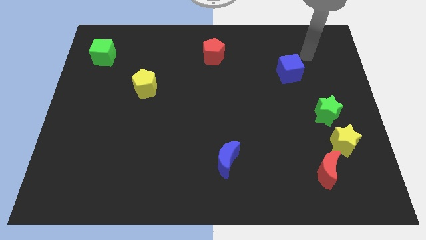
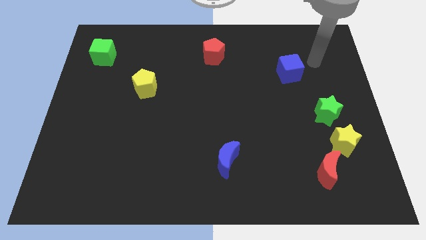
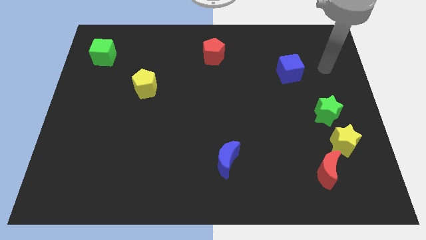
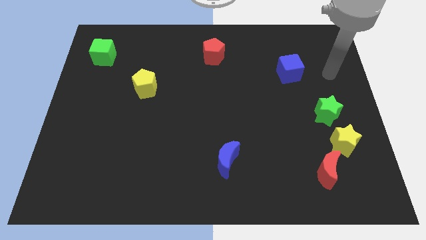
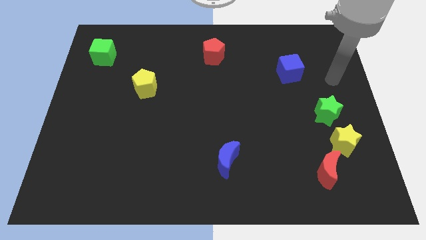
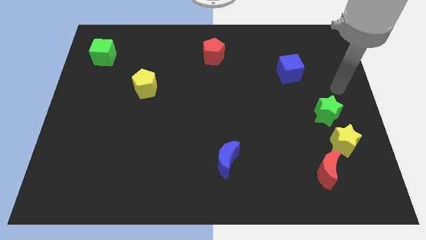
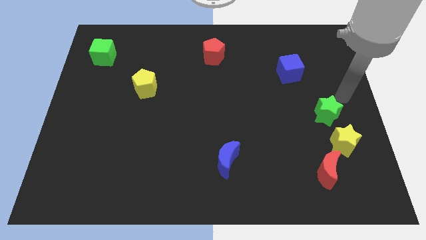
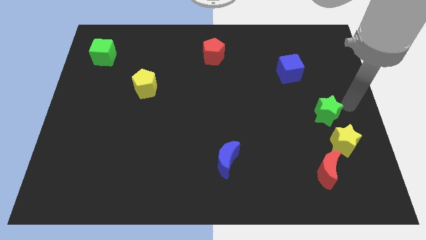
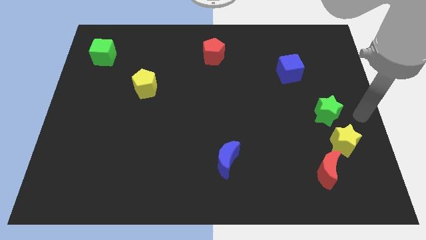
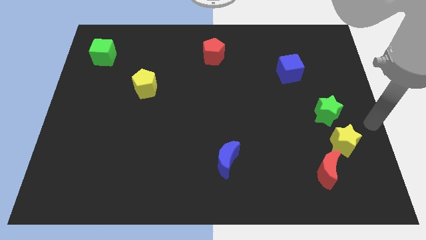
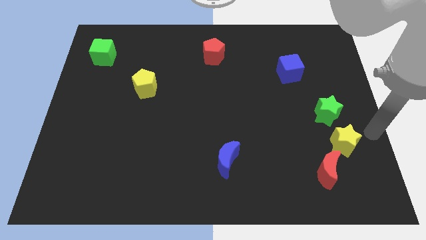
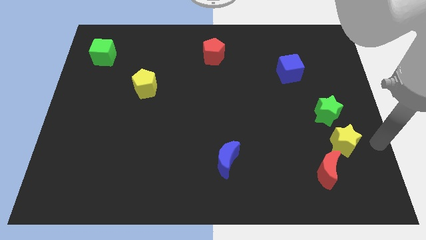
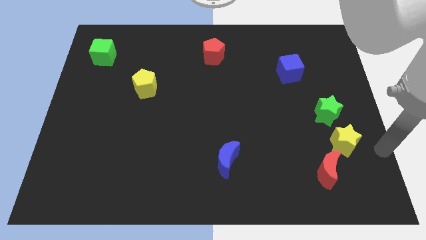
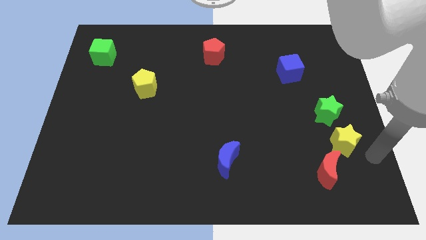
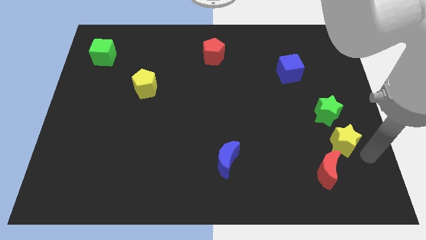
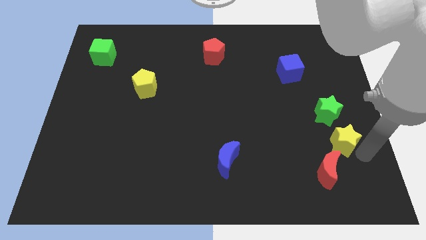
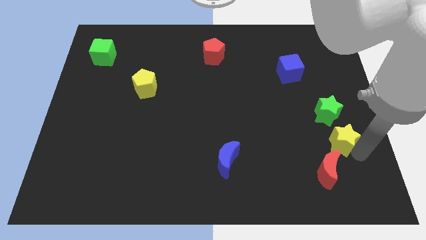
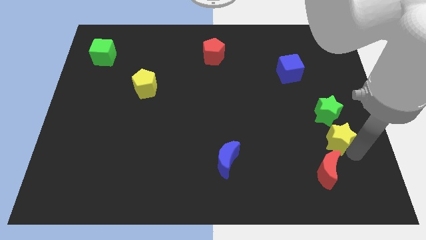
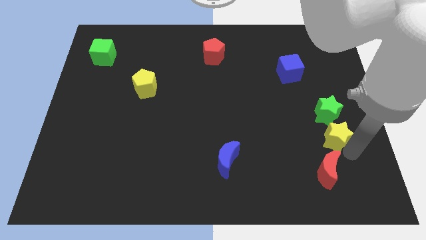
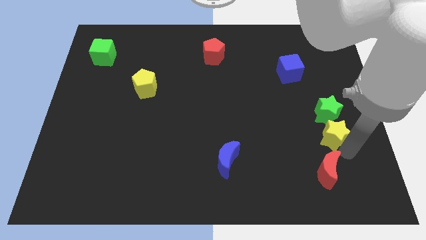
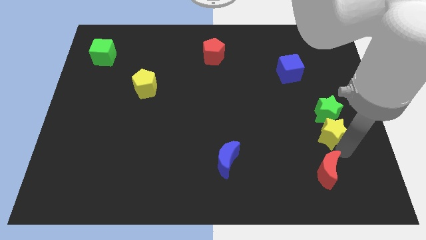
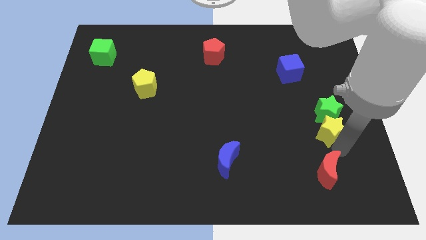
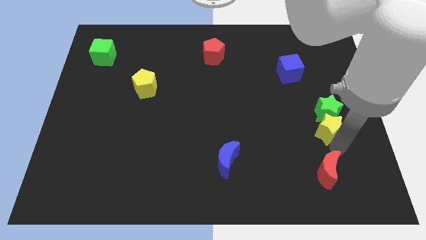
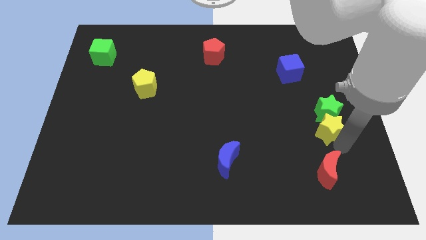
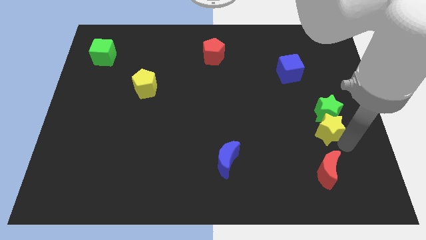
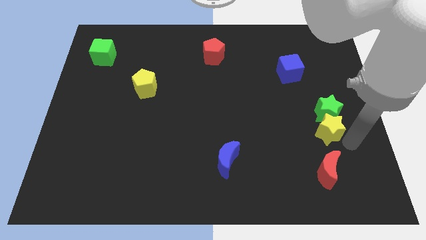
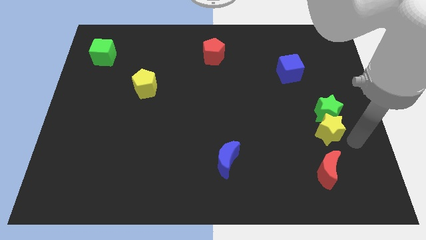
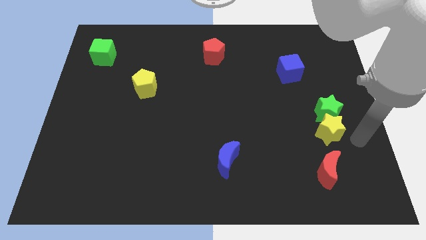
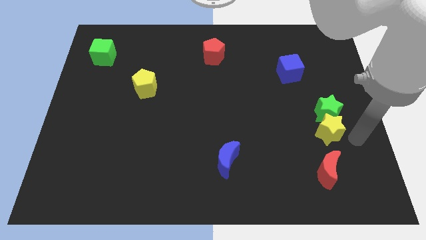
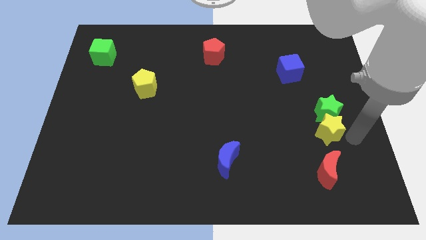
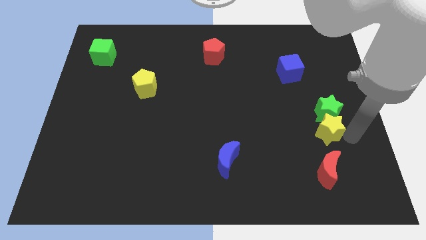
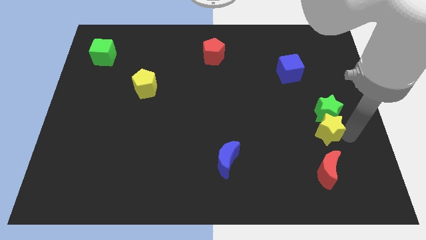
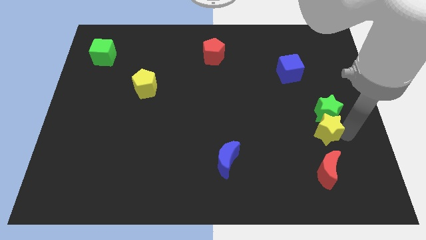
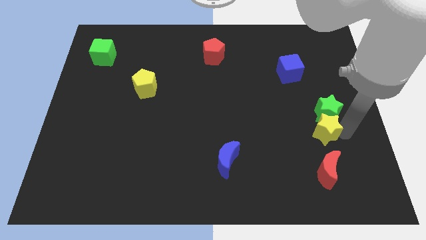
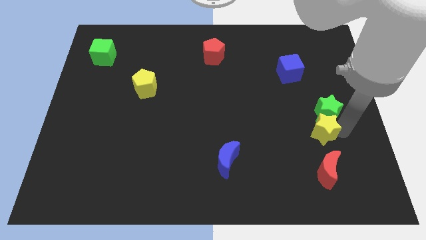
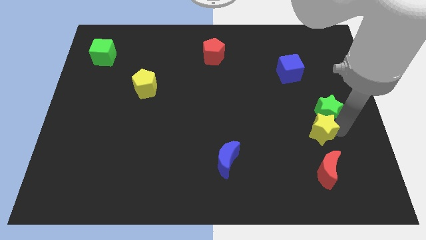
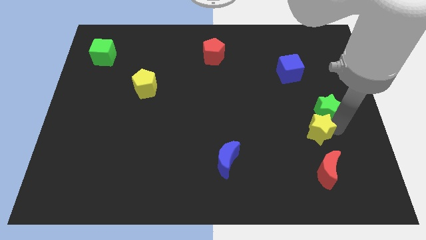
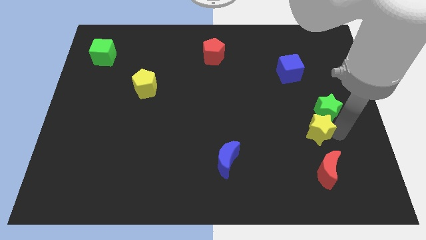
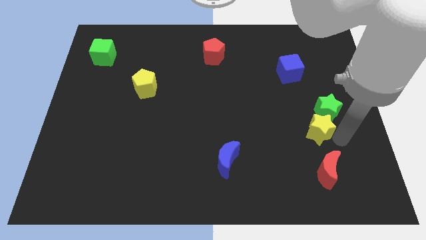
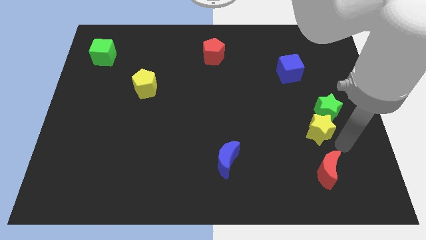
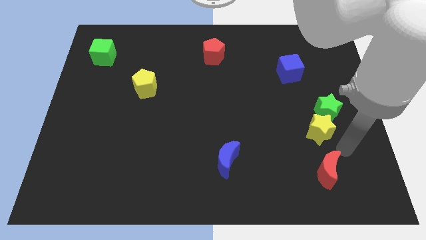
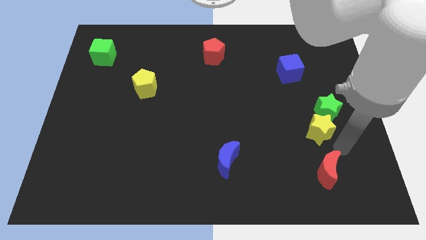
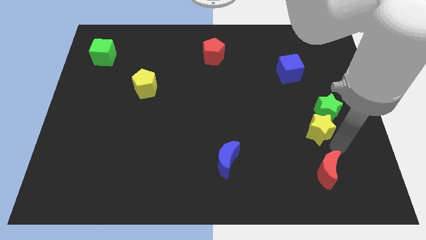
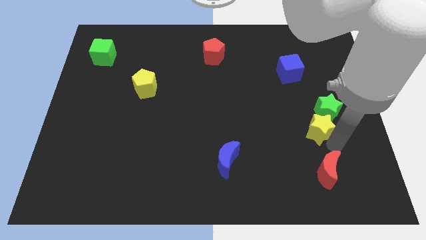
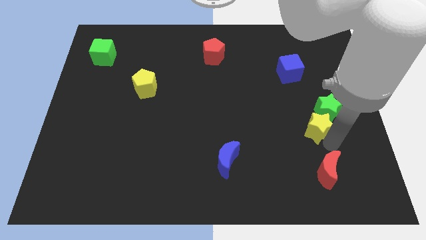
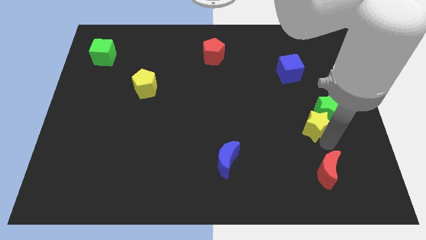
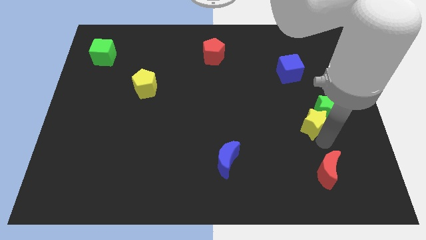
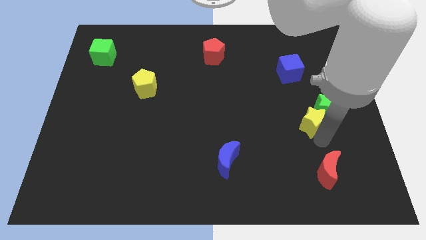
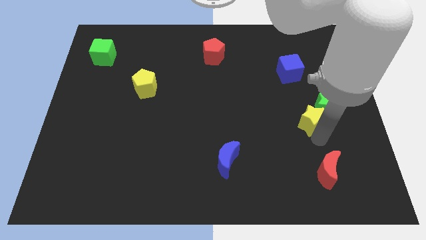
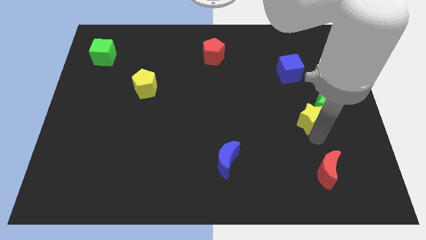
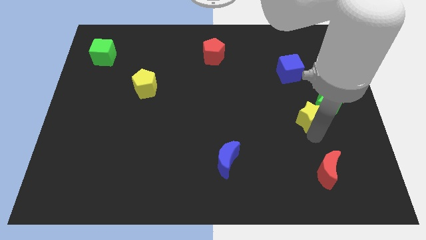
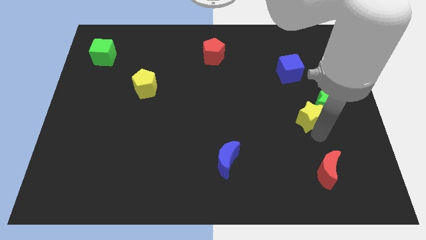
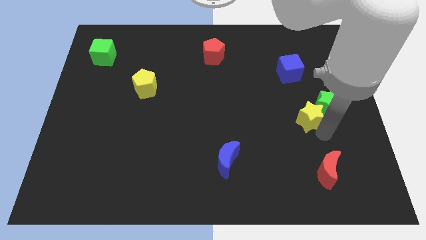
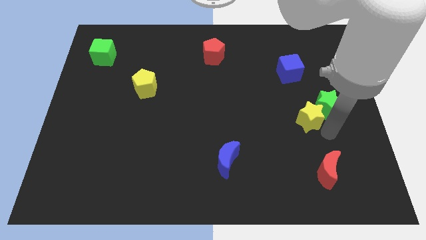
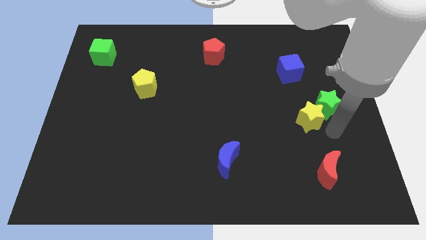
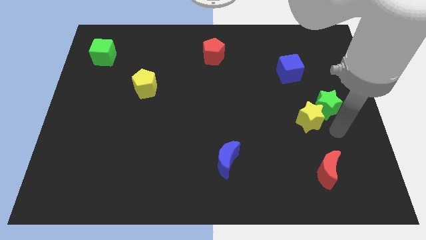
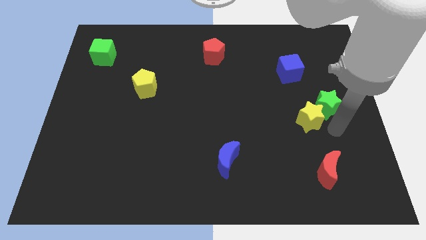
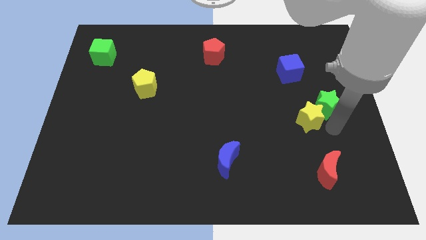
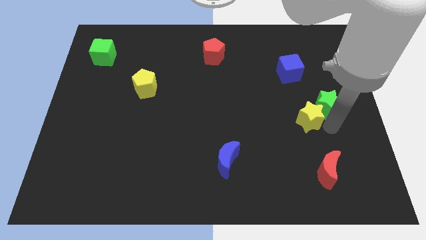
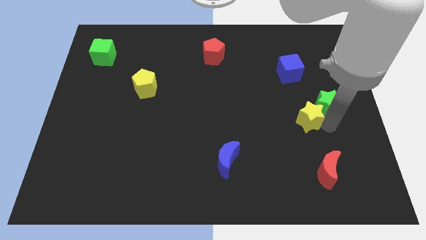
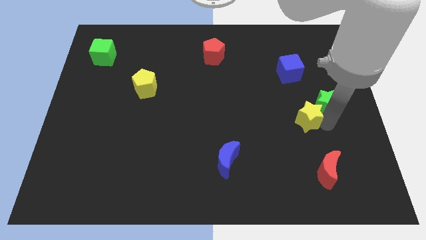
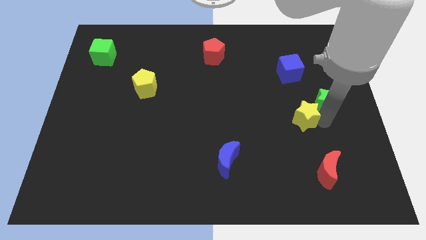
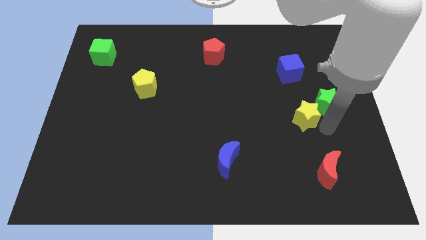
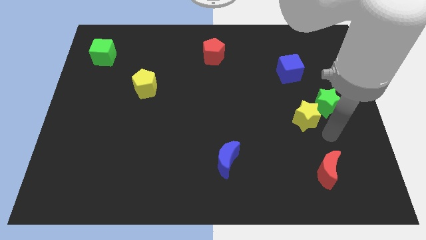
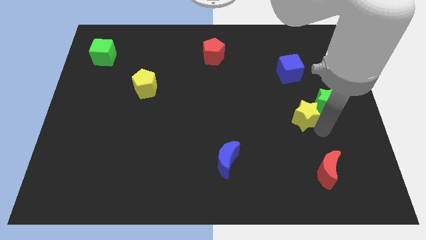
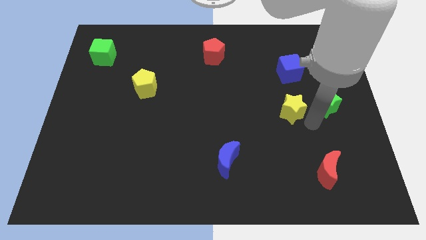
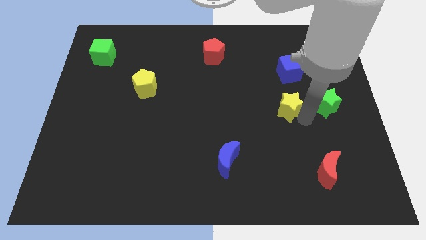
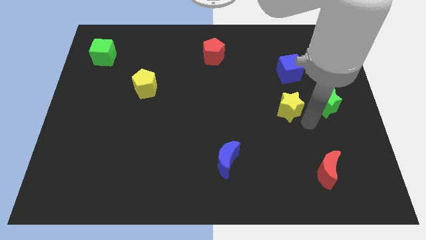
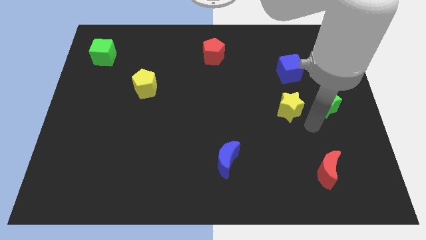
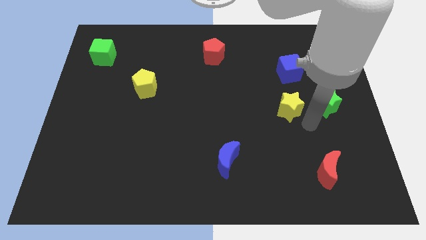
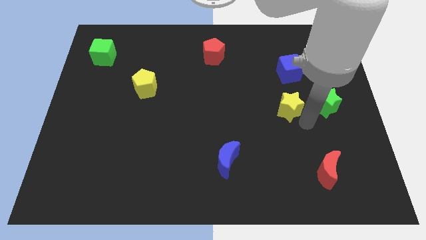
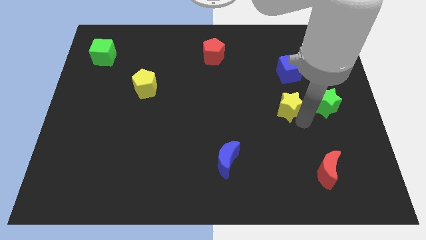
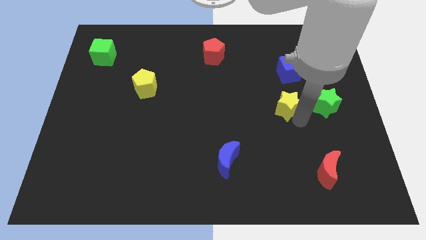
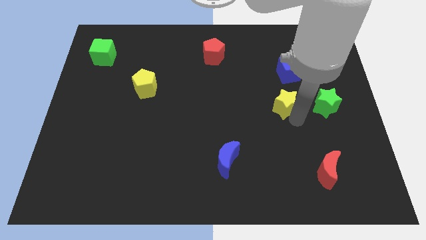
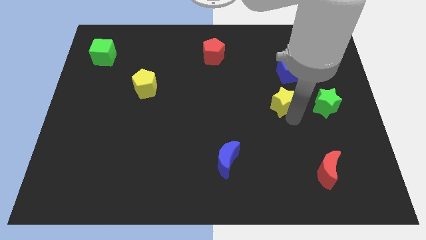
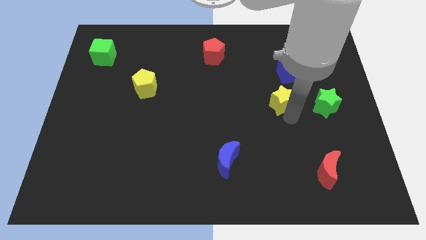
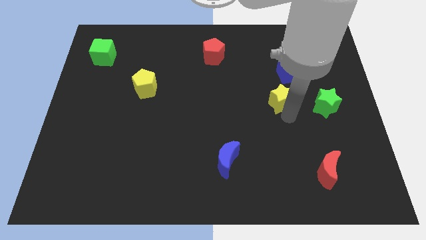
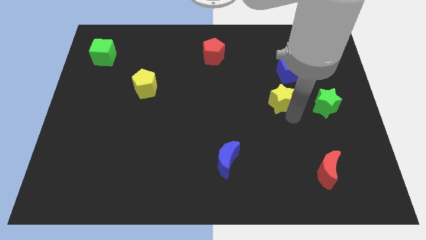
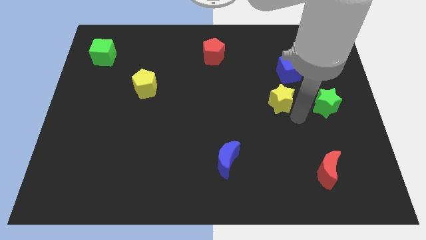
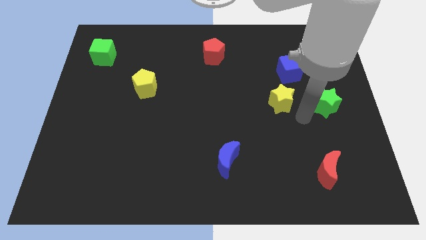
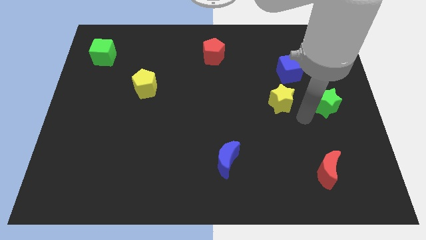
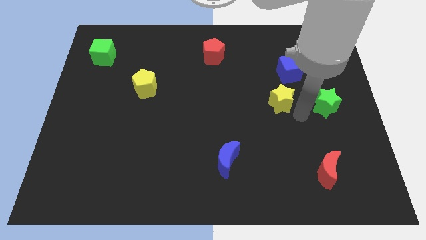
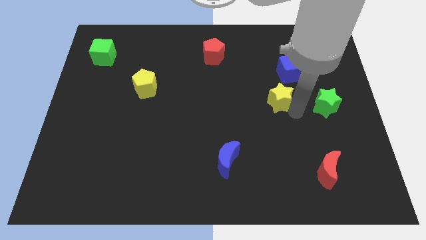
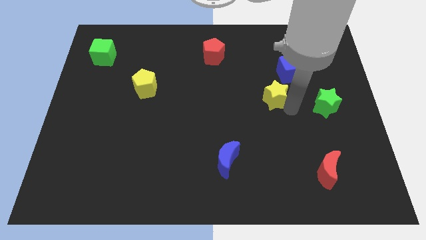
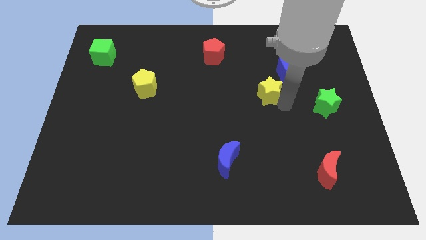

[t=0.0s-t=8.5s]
slide the yellow star up and to the left diagonally
